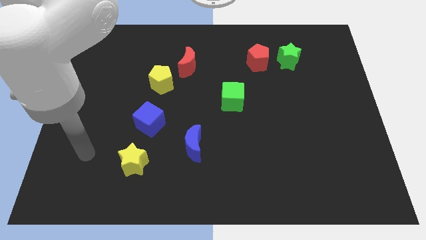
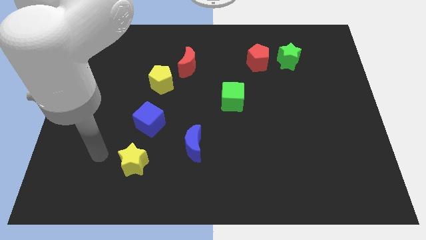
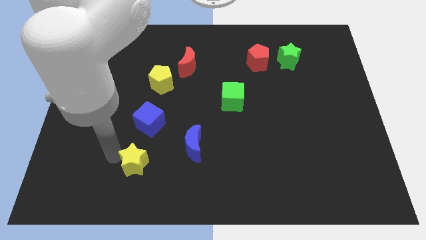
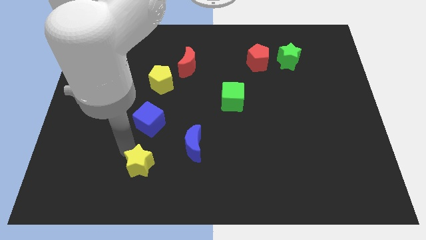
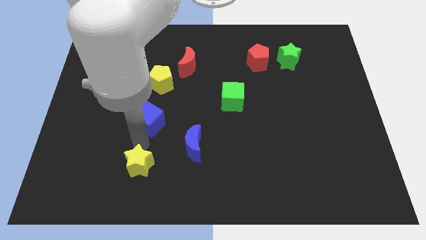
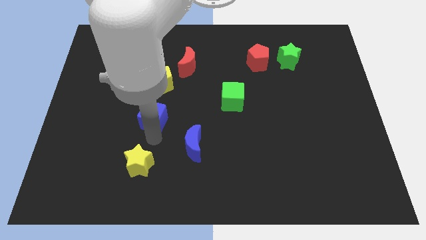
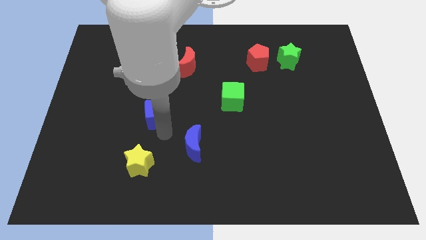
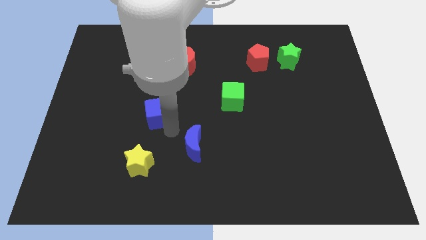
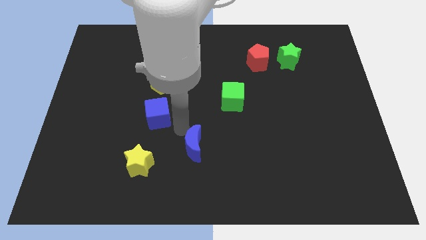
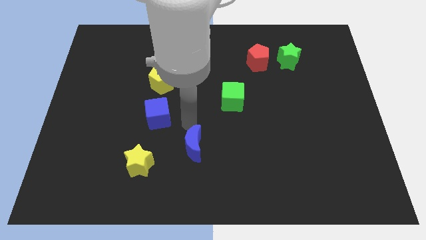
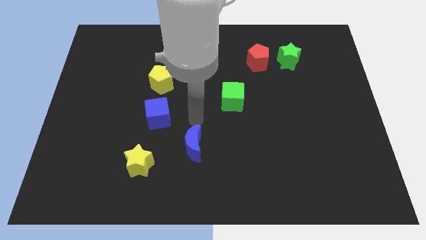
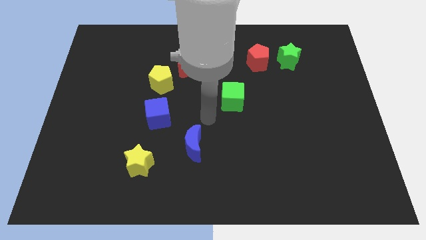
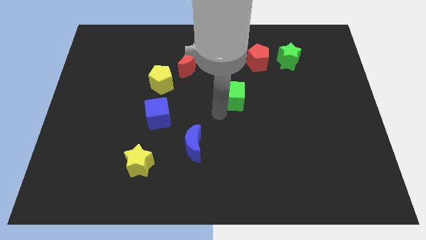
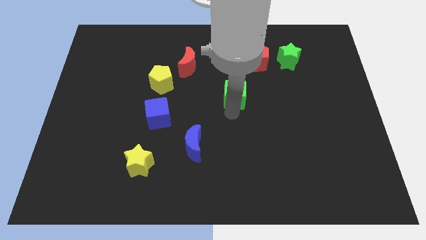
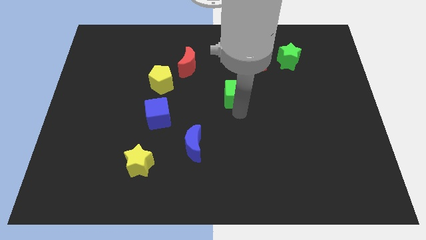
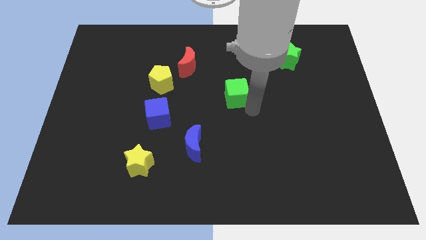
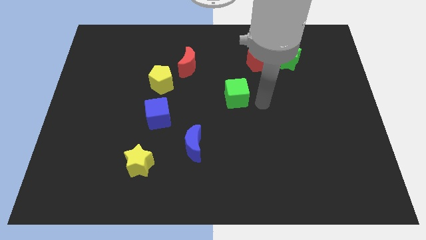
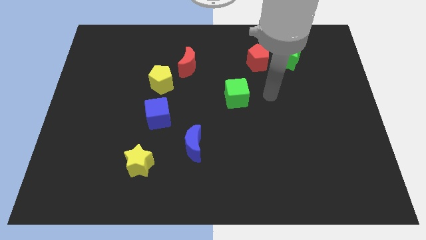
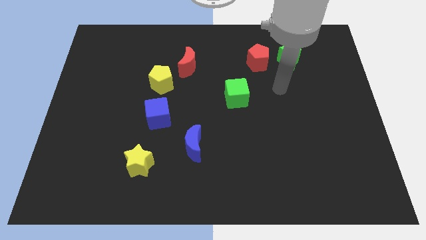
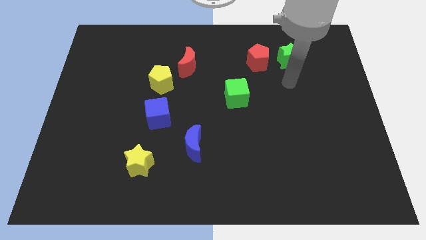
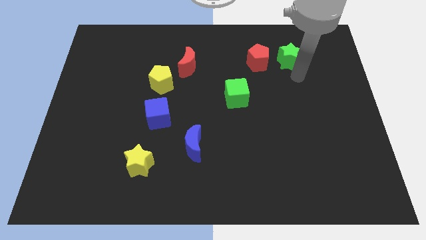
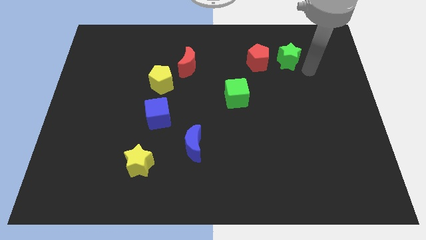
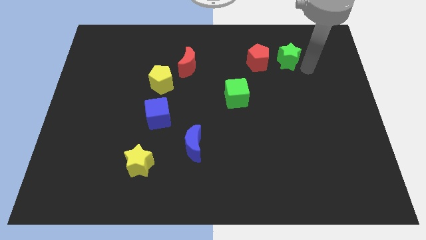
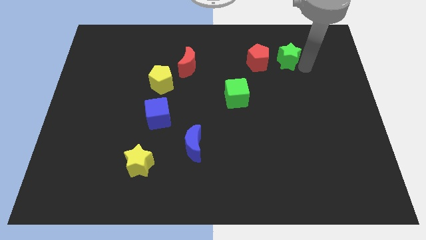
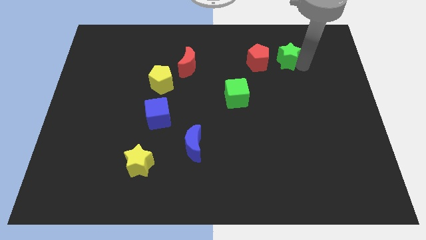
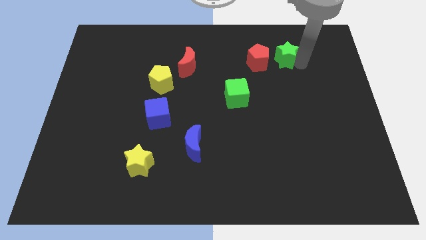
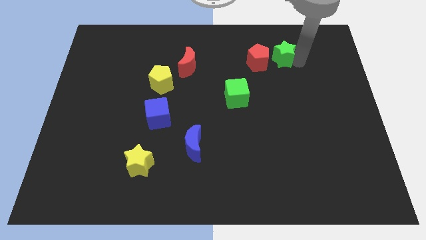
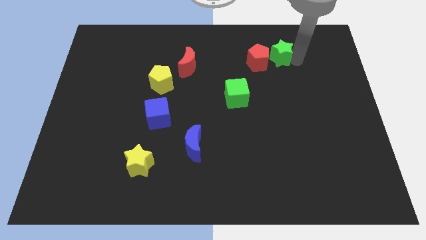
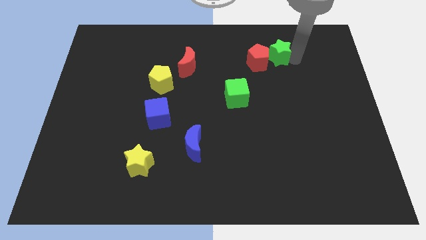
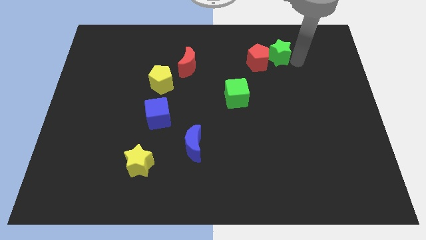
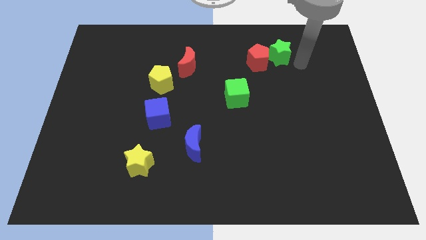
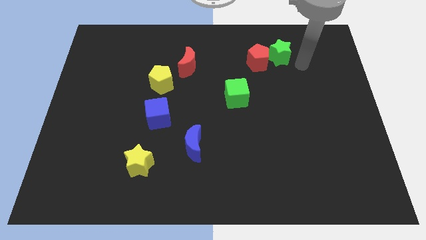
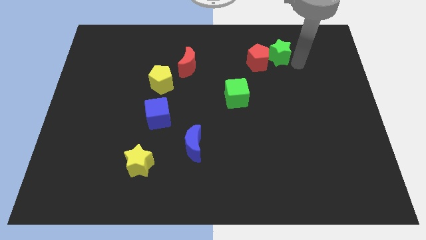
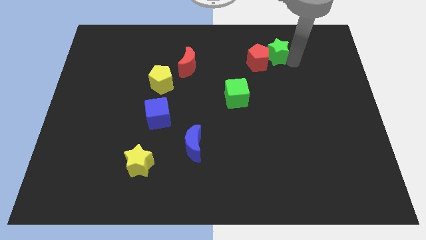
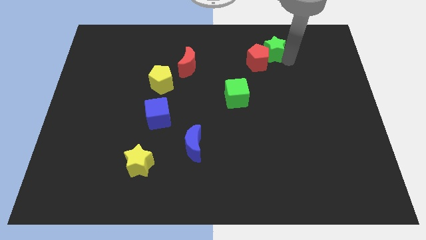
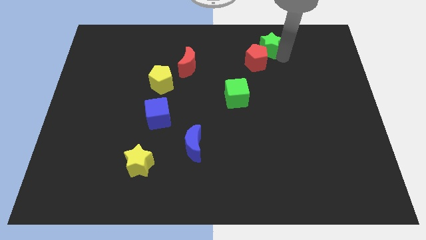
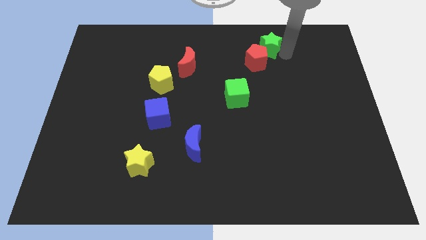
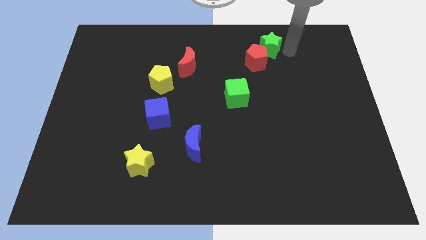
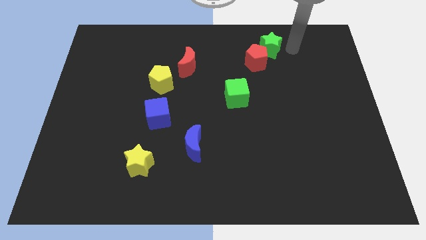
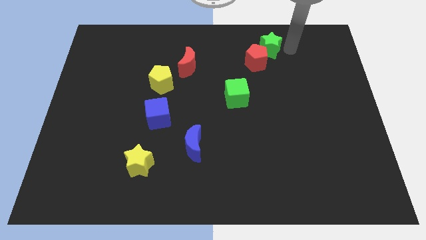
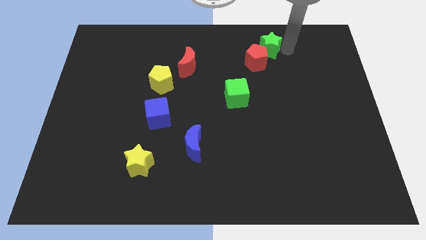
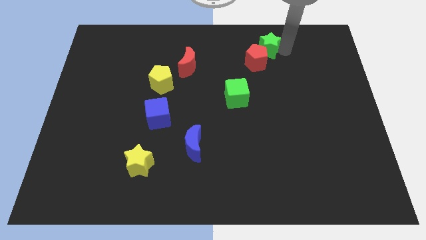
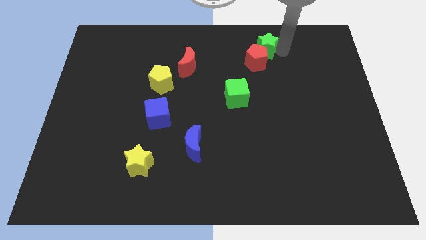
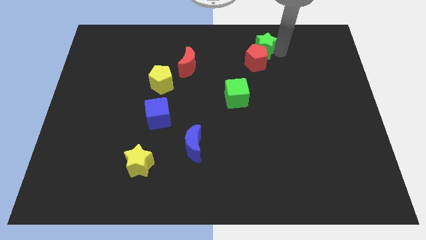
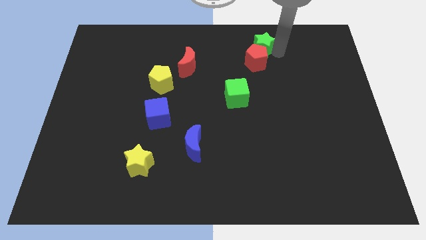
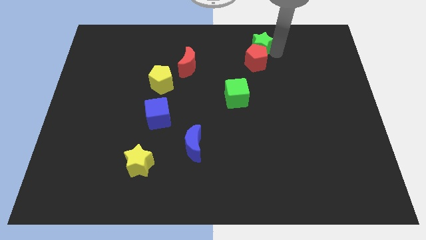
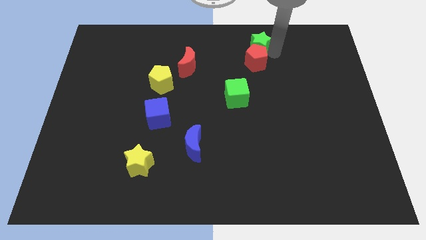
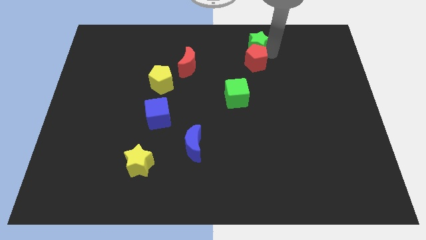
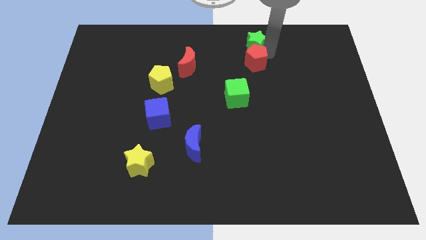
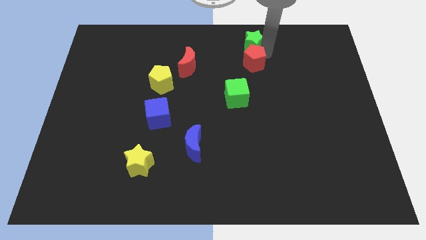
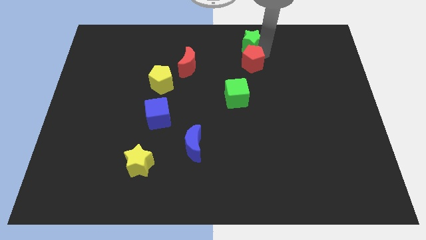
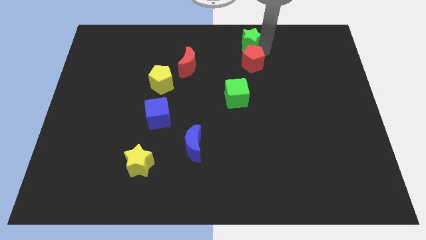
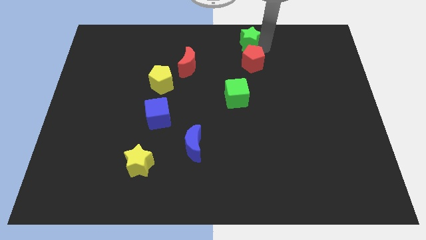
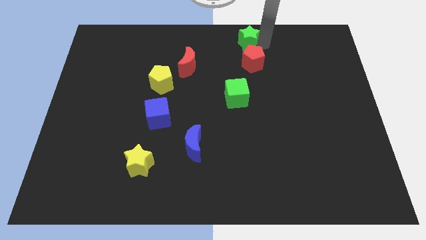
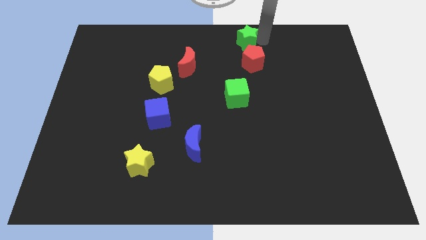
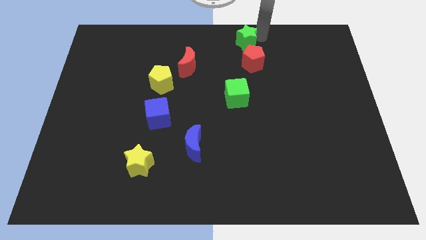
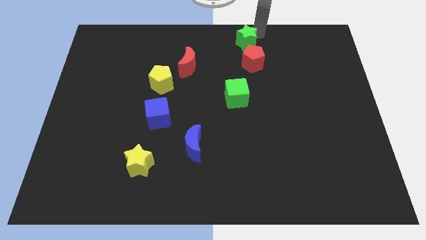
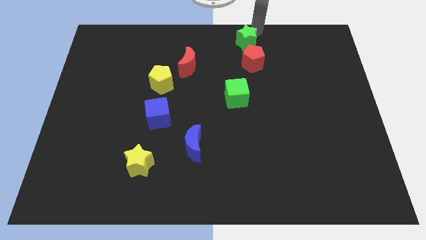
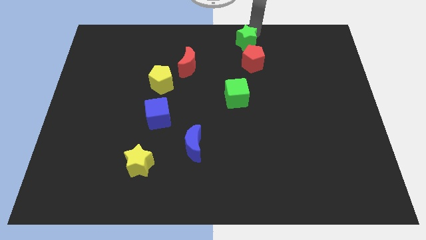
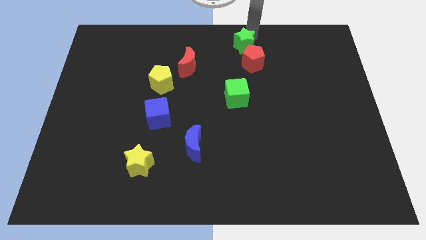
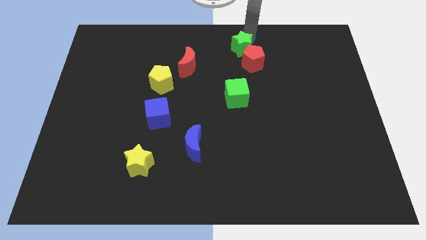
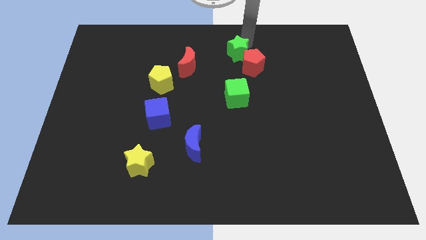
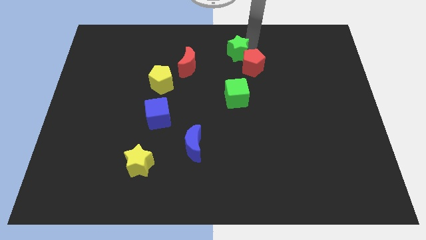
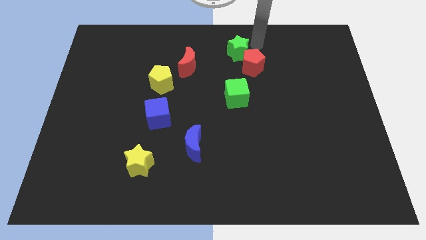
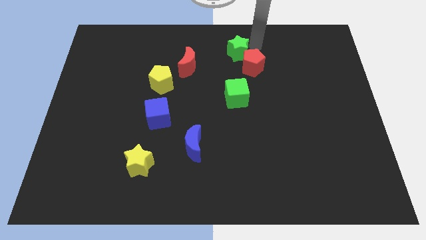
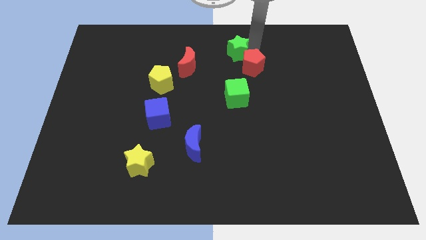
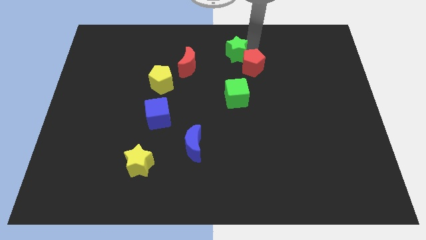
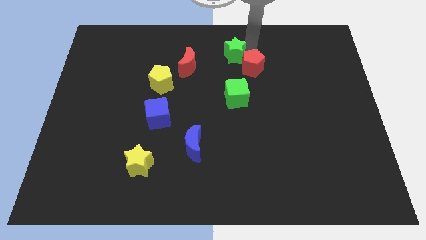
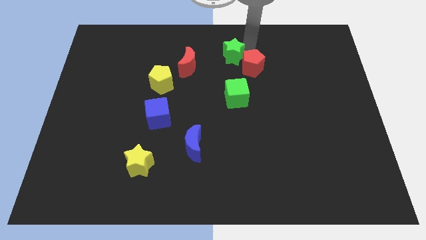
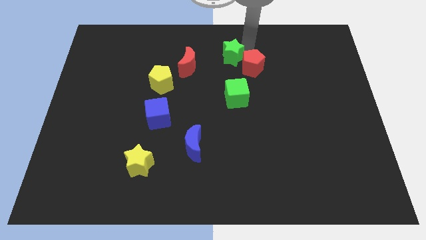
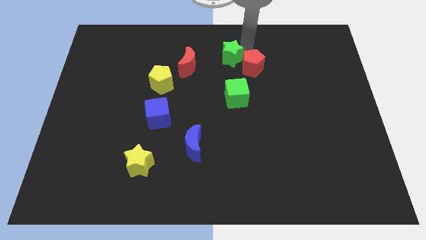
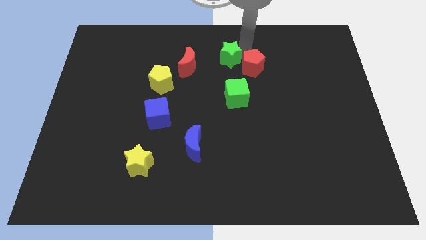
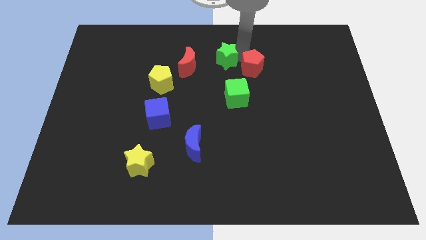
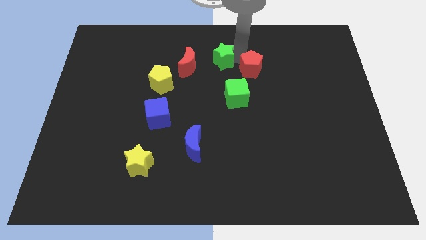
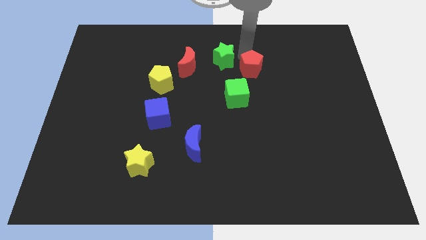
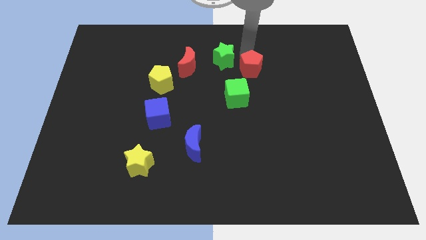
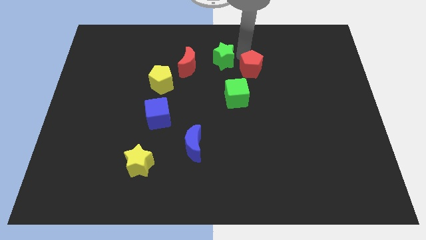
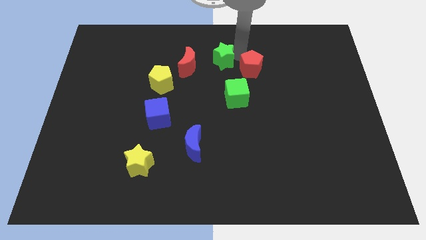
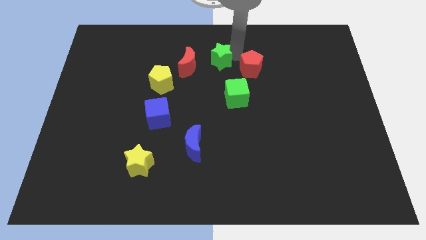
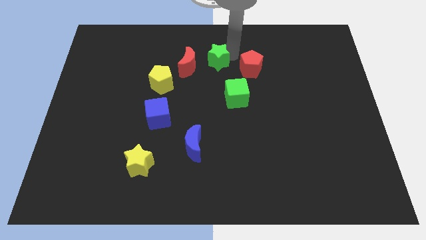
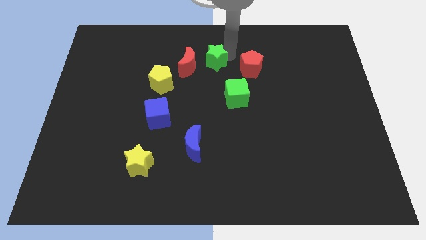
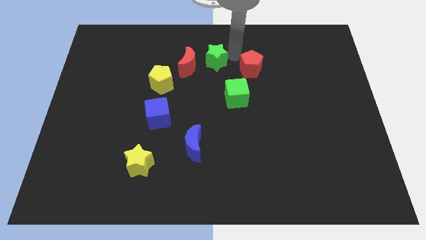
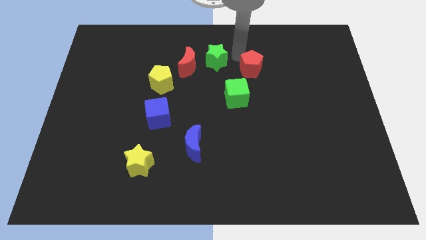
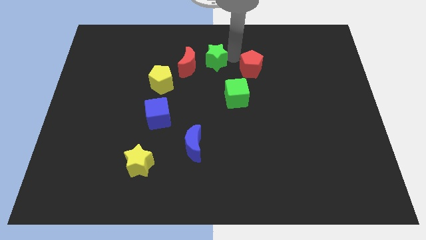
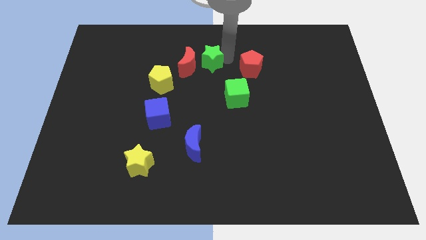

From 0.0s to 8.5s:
push the green star towards the red moon
